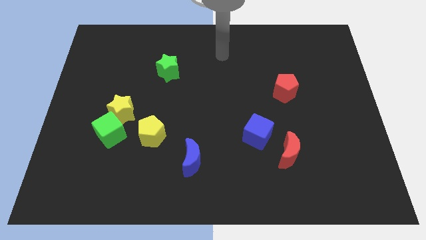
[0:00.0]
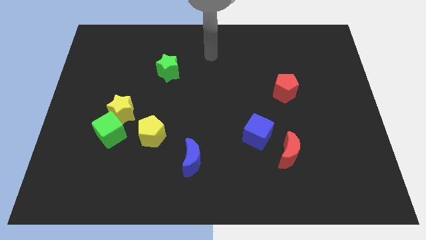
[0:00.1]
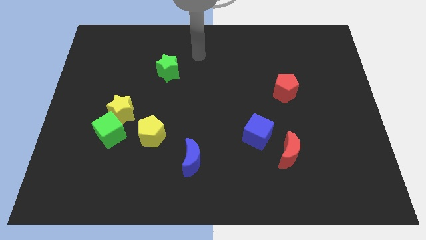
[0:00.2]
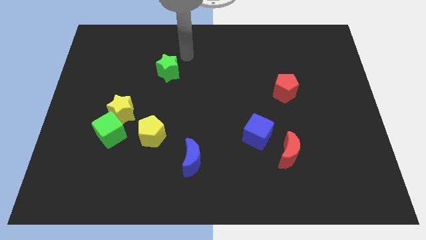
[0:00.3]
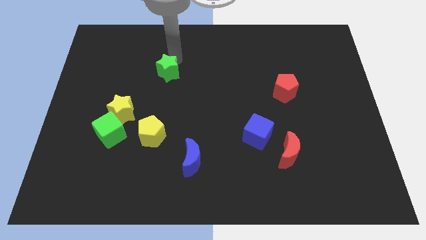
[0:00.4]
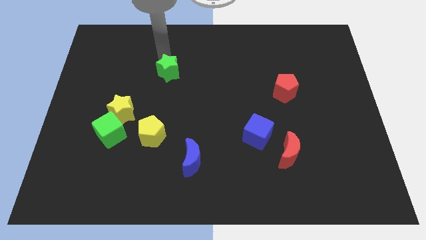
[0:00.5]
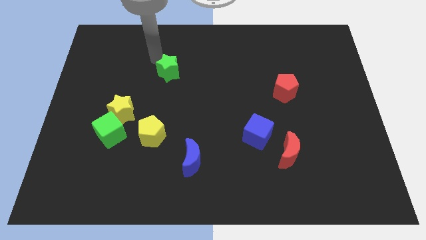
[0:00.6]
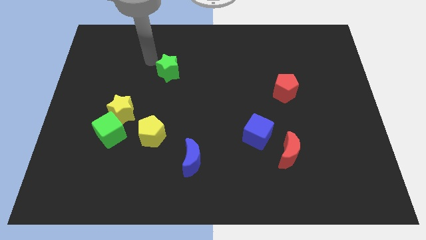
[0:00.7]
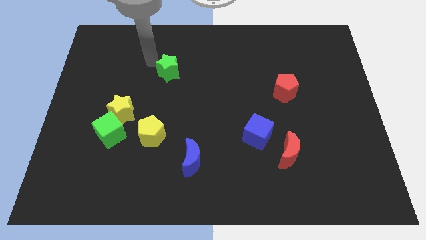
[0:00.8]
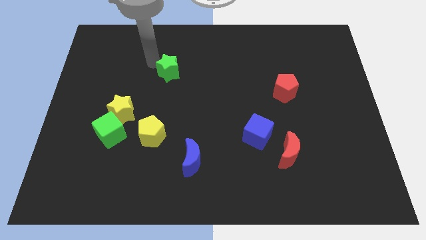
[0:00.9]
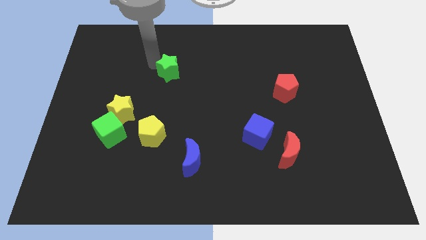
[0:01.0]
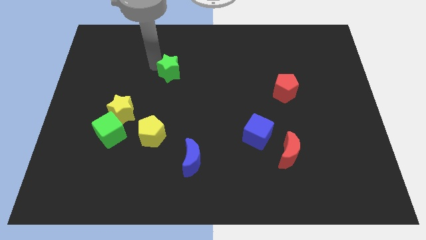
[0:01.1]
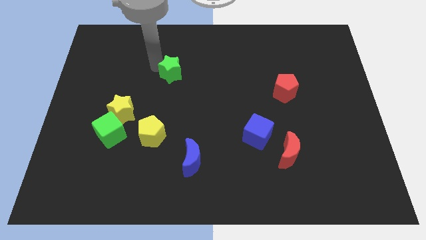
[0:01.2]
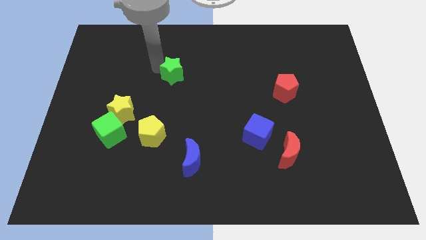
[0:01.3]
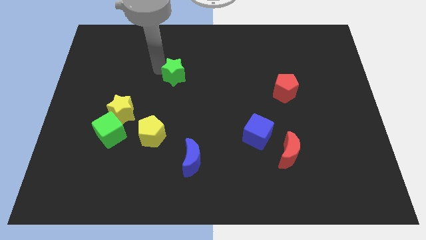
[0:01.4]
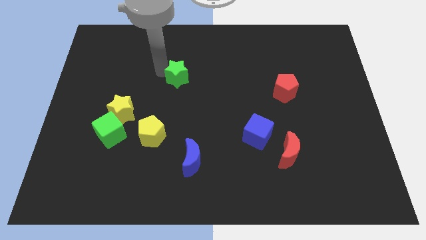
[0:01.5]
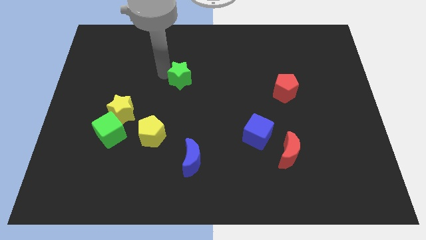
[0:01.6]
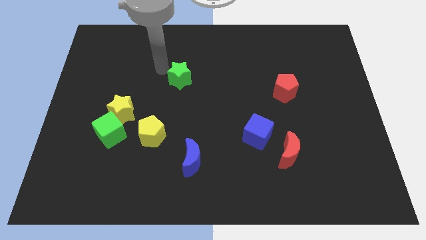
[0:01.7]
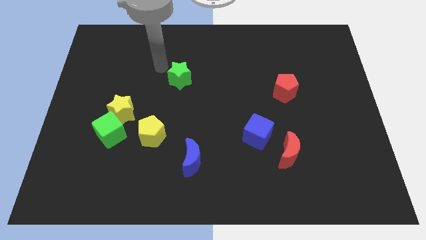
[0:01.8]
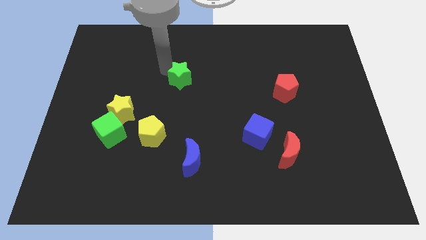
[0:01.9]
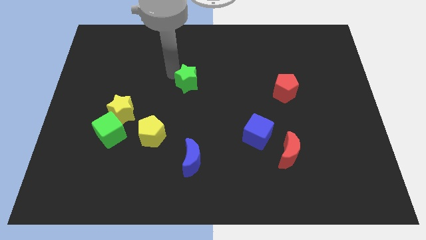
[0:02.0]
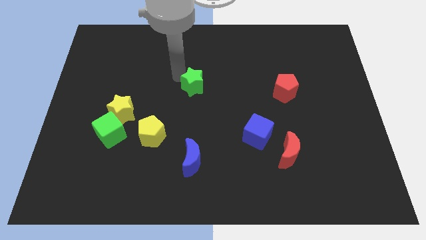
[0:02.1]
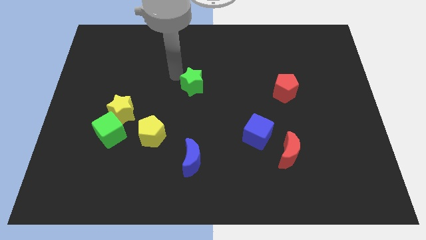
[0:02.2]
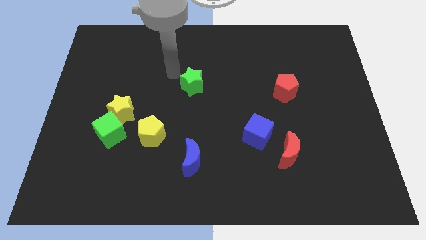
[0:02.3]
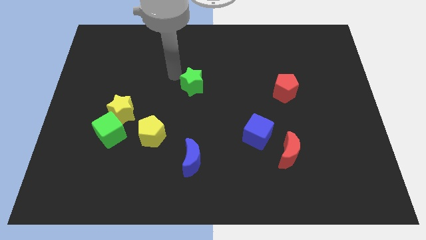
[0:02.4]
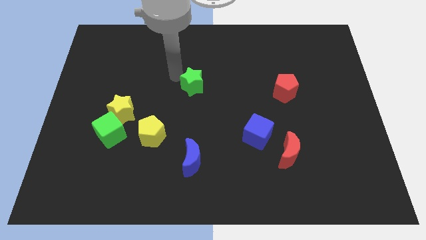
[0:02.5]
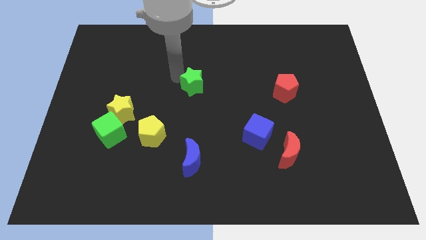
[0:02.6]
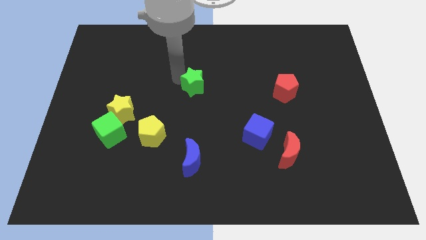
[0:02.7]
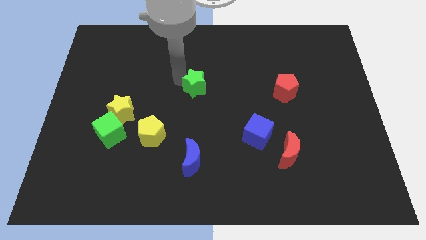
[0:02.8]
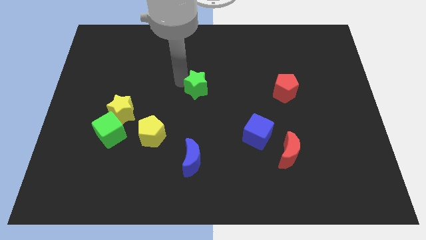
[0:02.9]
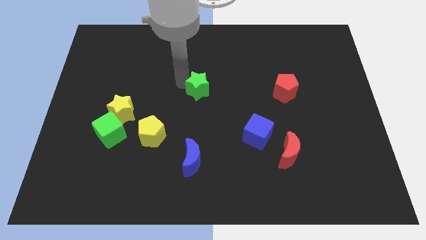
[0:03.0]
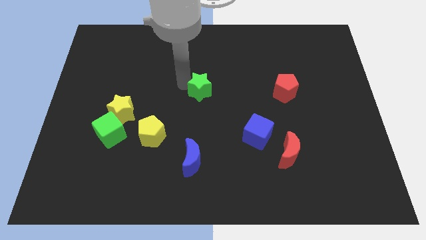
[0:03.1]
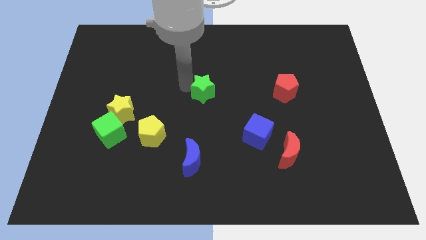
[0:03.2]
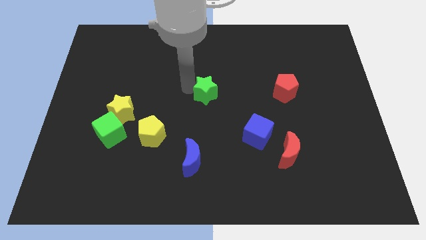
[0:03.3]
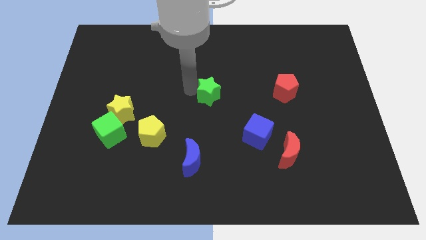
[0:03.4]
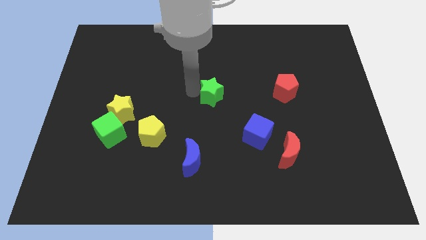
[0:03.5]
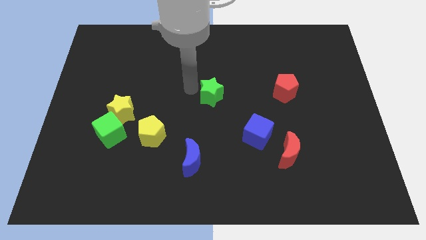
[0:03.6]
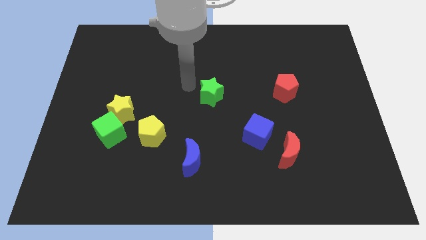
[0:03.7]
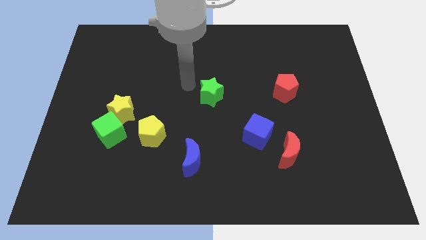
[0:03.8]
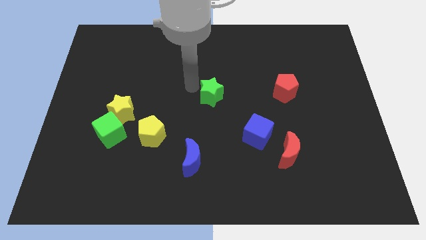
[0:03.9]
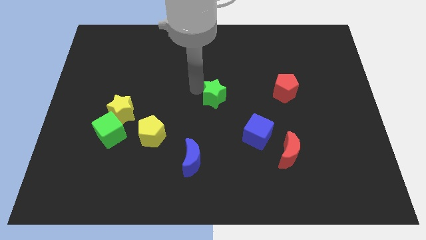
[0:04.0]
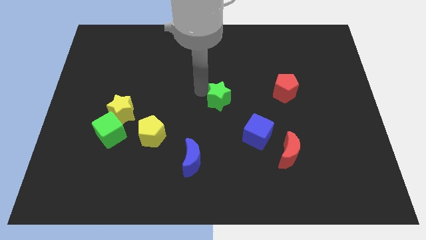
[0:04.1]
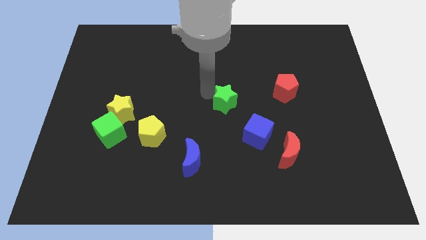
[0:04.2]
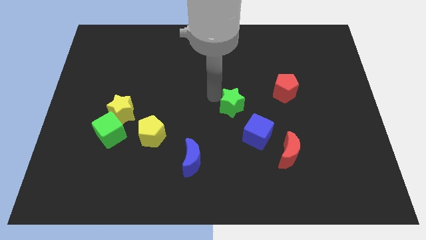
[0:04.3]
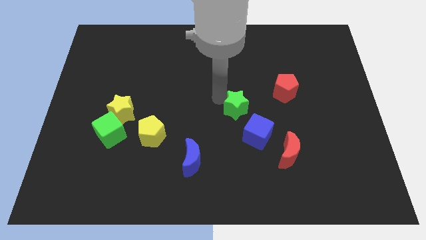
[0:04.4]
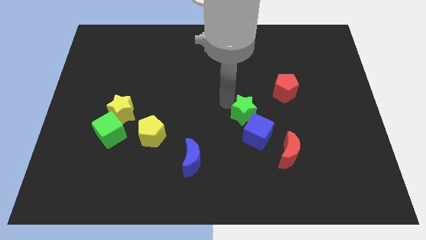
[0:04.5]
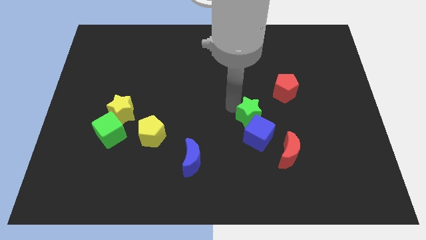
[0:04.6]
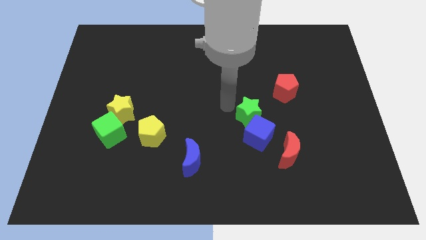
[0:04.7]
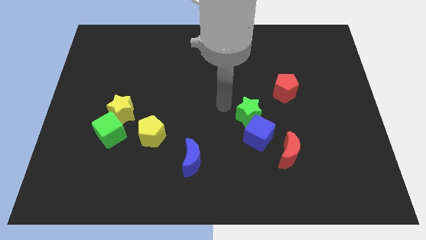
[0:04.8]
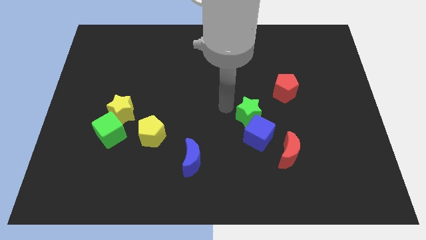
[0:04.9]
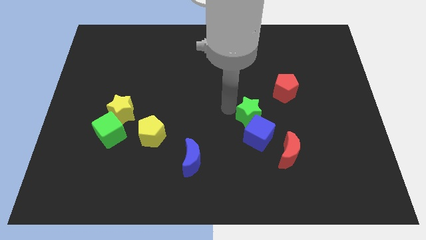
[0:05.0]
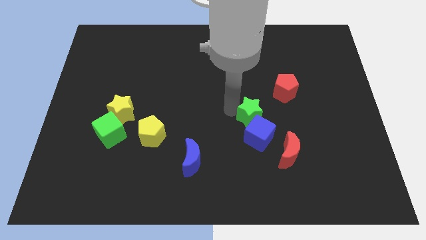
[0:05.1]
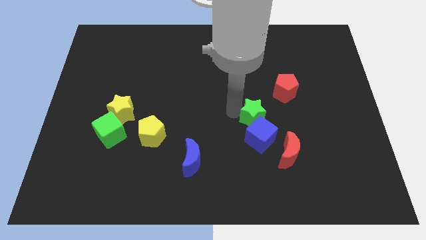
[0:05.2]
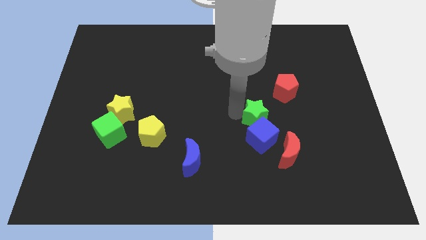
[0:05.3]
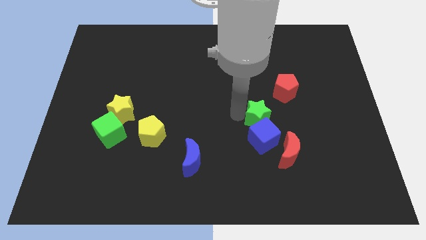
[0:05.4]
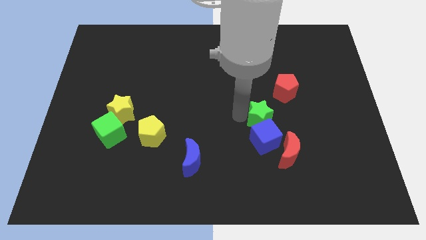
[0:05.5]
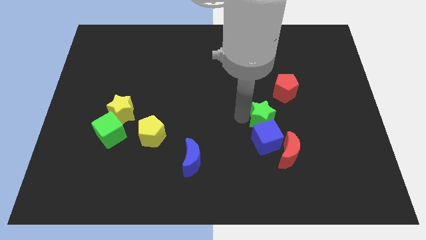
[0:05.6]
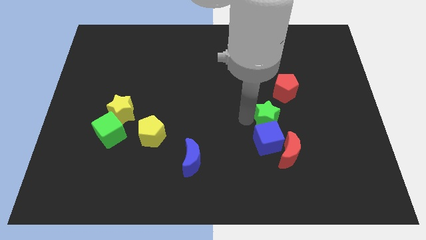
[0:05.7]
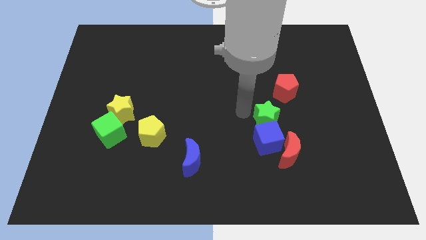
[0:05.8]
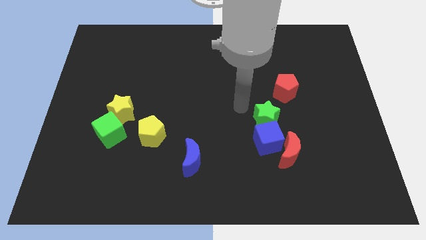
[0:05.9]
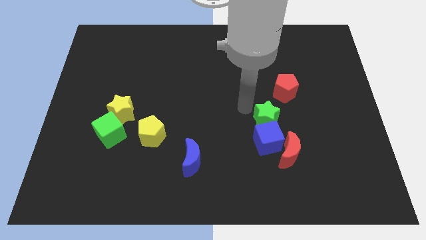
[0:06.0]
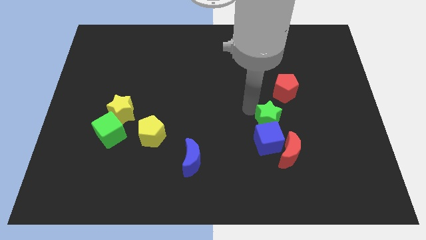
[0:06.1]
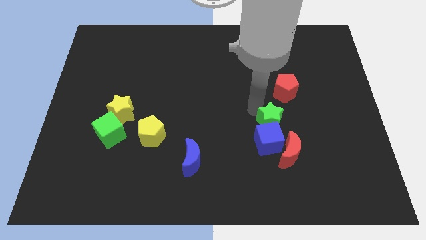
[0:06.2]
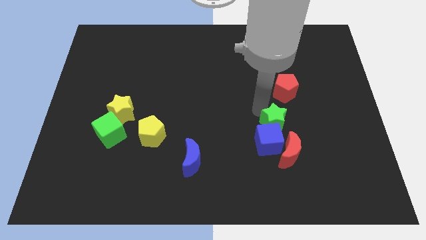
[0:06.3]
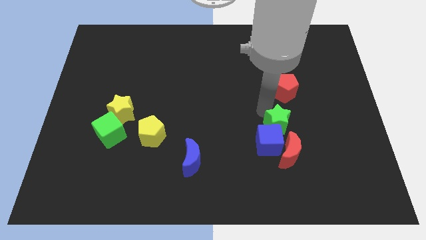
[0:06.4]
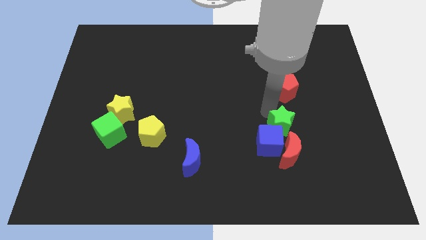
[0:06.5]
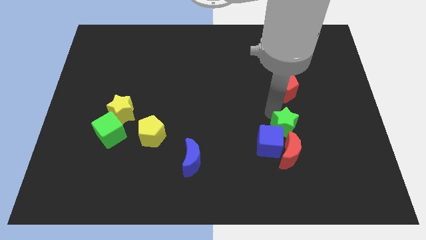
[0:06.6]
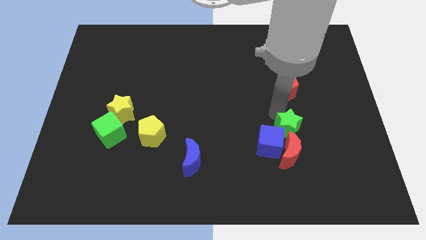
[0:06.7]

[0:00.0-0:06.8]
slide the green star to the right side of the blue cube
